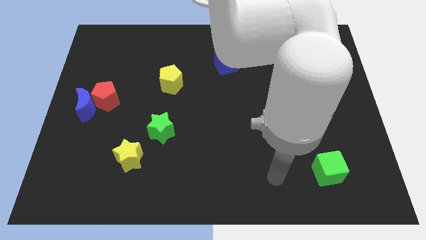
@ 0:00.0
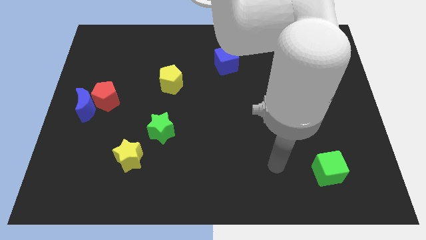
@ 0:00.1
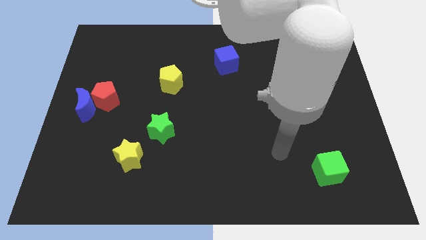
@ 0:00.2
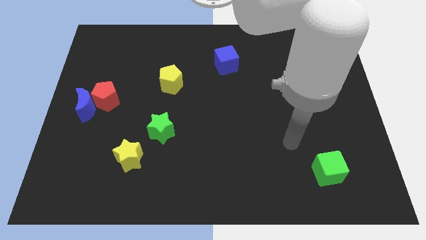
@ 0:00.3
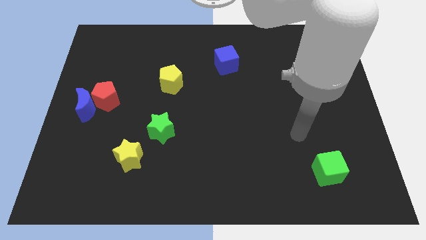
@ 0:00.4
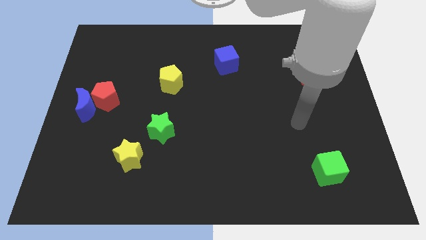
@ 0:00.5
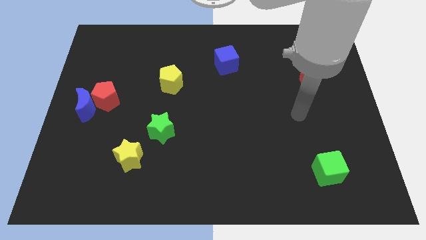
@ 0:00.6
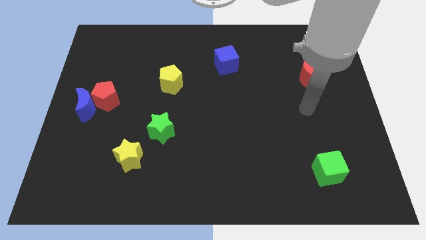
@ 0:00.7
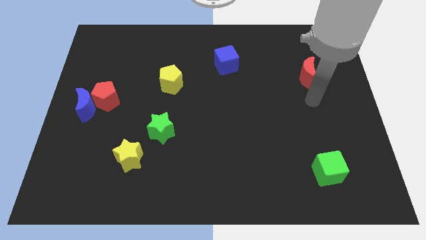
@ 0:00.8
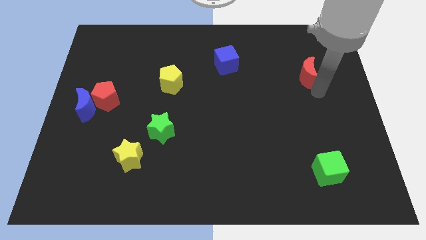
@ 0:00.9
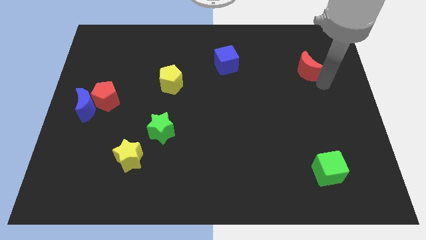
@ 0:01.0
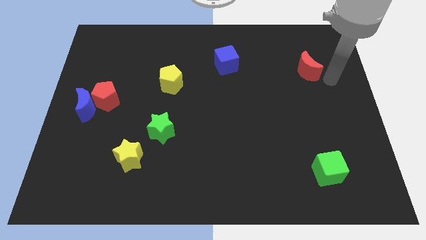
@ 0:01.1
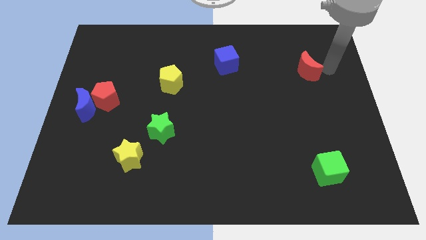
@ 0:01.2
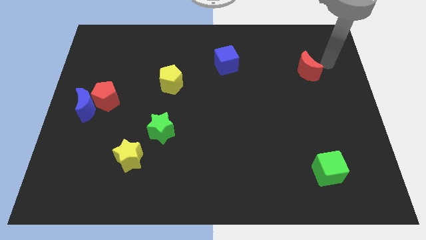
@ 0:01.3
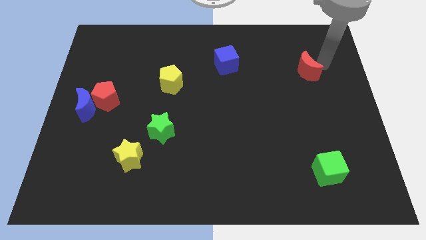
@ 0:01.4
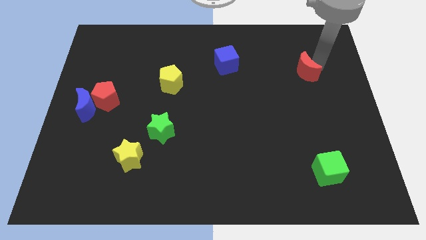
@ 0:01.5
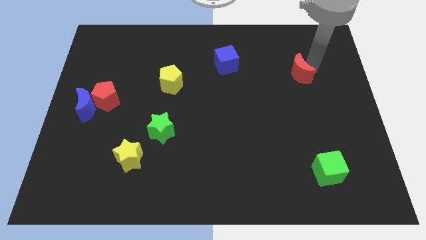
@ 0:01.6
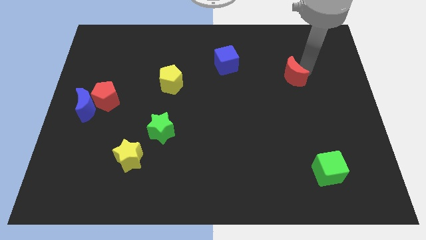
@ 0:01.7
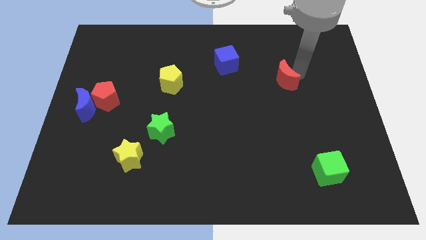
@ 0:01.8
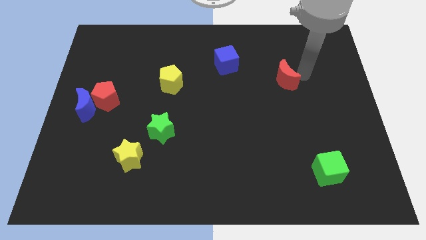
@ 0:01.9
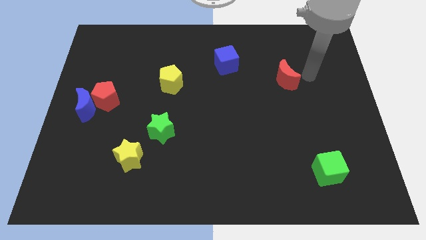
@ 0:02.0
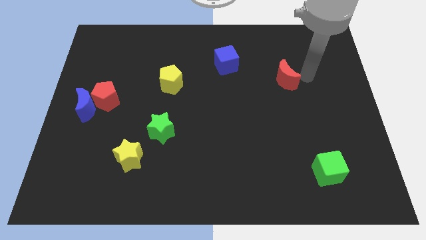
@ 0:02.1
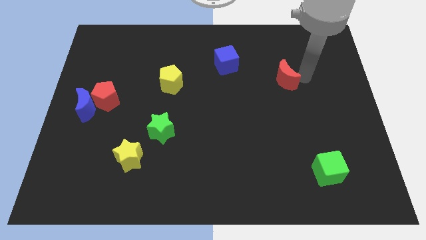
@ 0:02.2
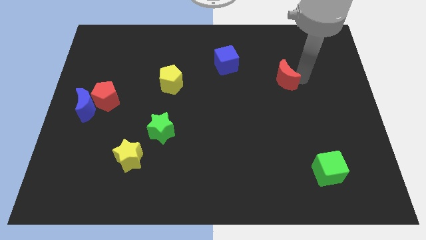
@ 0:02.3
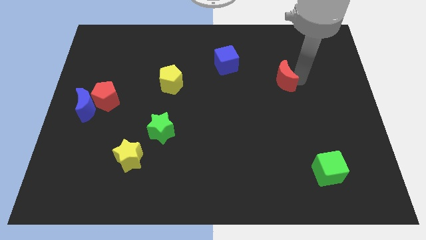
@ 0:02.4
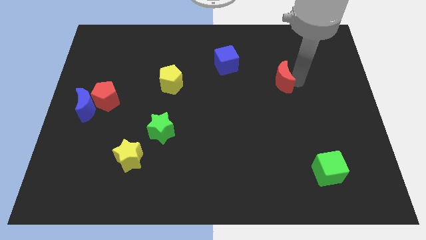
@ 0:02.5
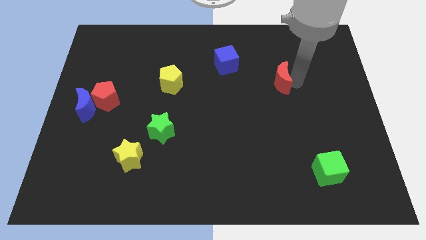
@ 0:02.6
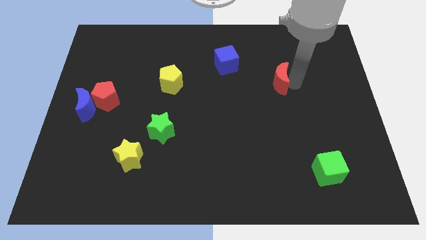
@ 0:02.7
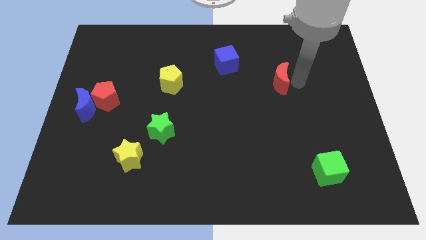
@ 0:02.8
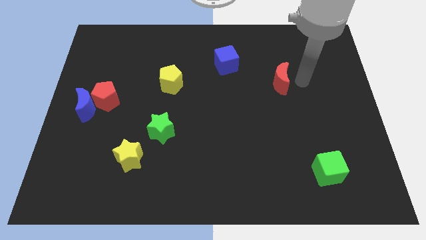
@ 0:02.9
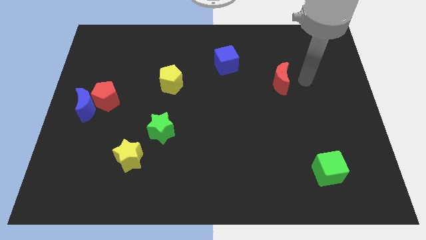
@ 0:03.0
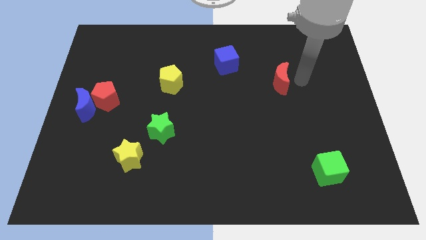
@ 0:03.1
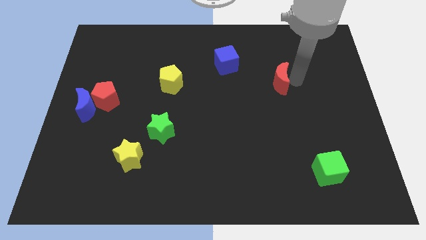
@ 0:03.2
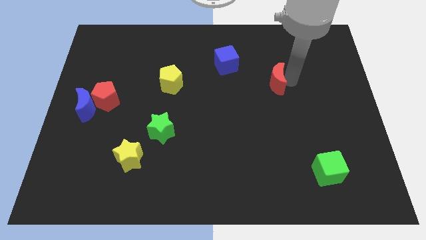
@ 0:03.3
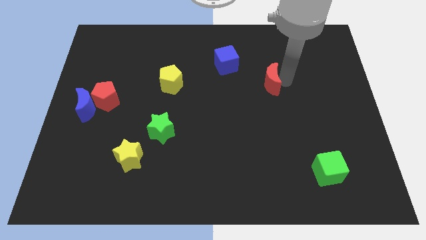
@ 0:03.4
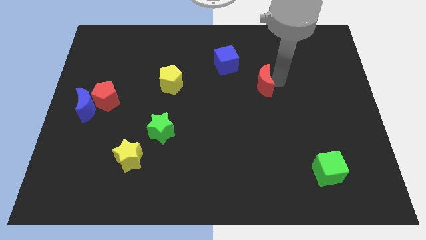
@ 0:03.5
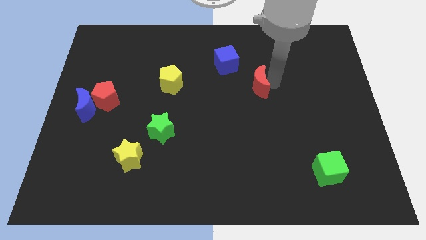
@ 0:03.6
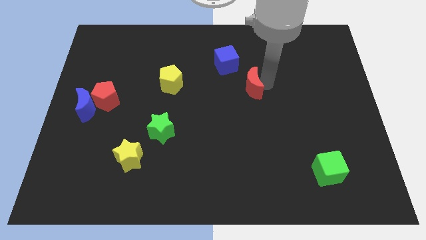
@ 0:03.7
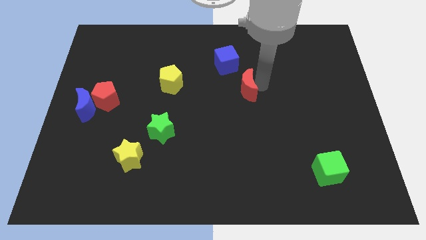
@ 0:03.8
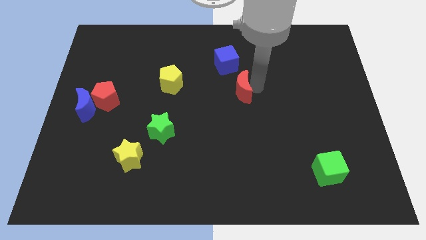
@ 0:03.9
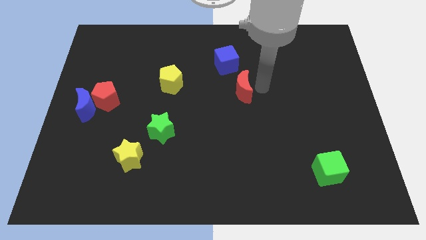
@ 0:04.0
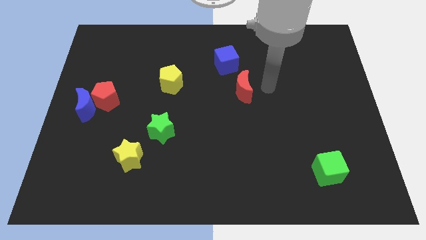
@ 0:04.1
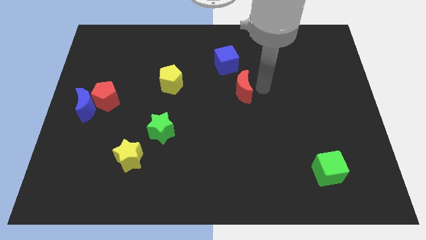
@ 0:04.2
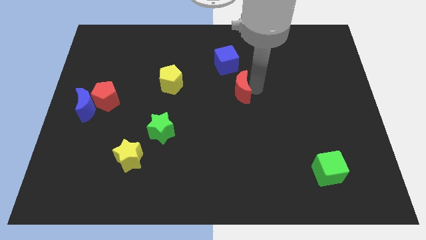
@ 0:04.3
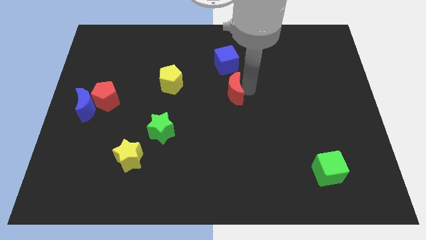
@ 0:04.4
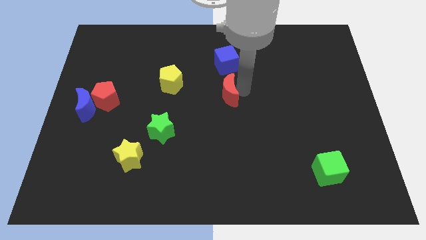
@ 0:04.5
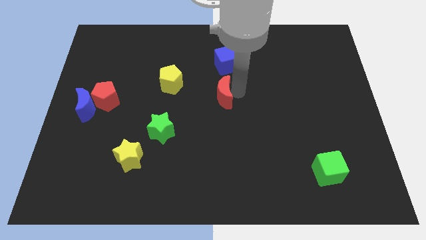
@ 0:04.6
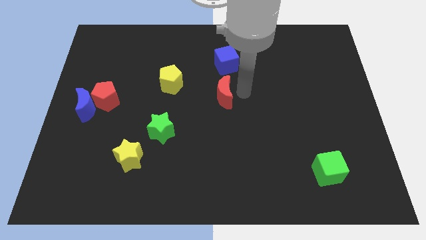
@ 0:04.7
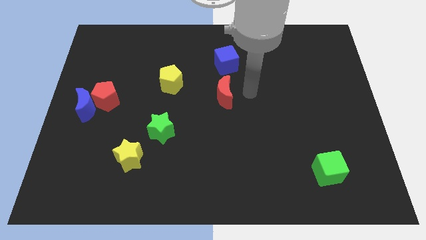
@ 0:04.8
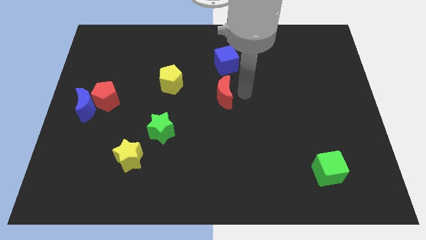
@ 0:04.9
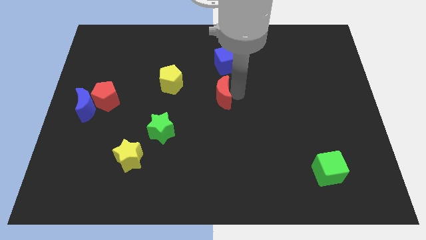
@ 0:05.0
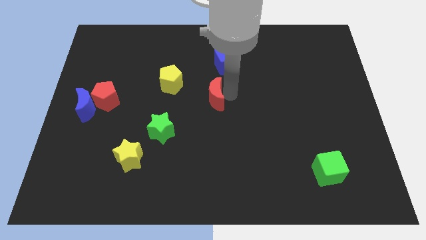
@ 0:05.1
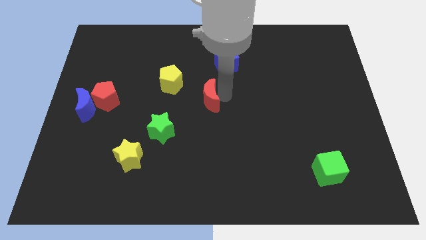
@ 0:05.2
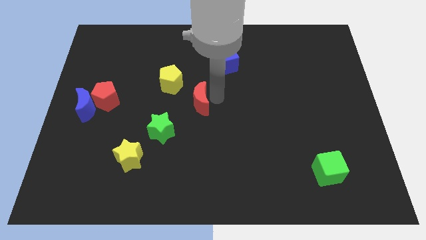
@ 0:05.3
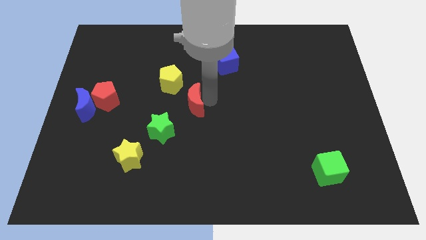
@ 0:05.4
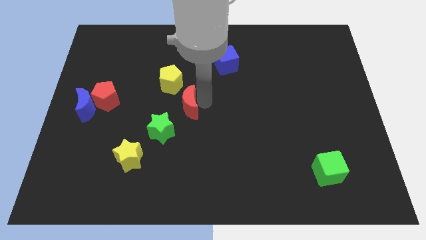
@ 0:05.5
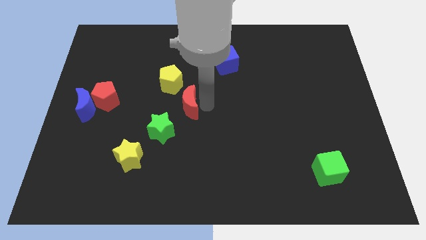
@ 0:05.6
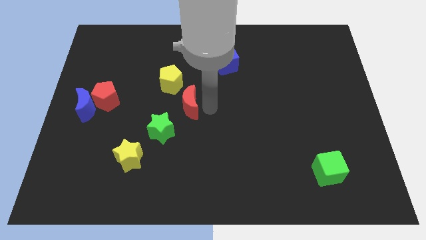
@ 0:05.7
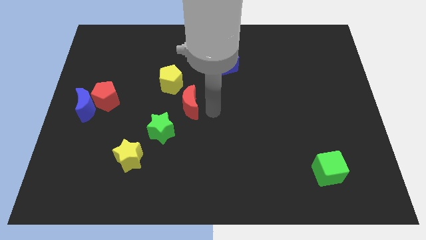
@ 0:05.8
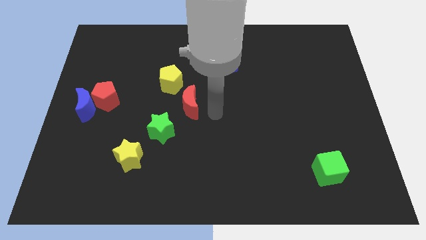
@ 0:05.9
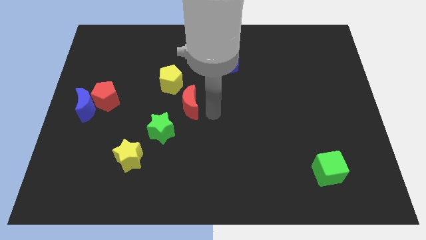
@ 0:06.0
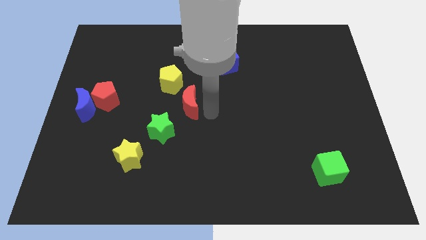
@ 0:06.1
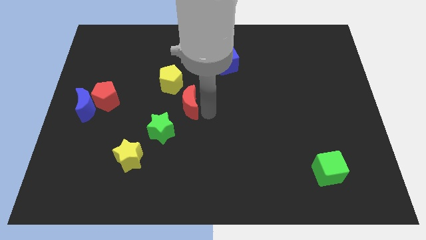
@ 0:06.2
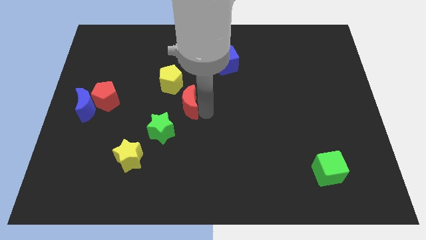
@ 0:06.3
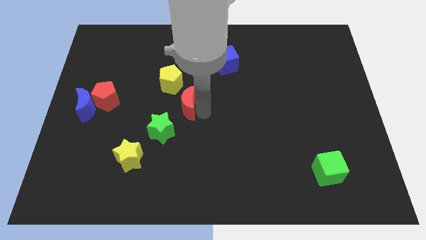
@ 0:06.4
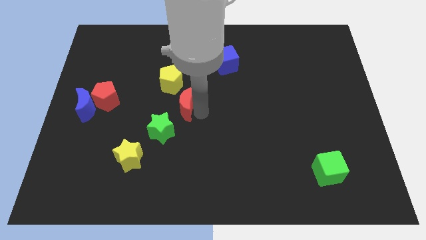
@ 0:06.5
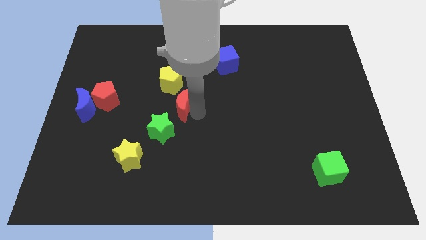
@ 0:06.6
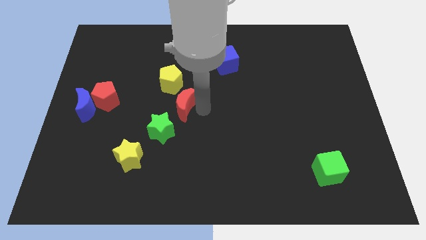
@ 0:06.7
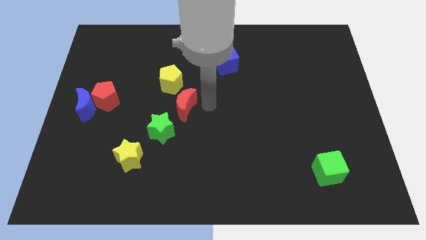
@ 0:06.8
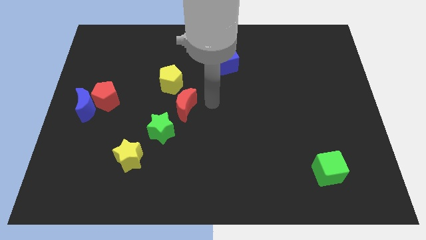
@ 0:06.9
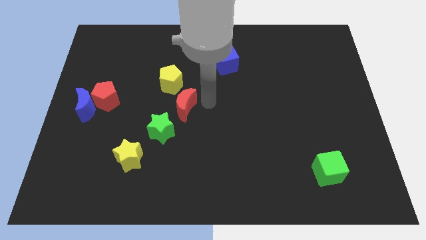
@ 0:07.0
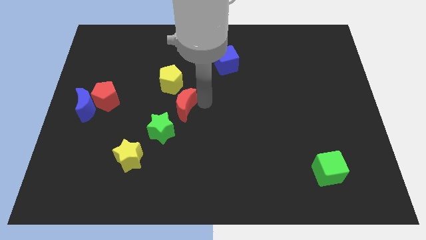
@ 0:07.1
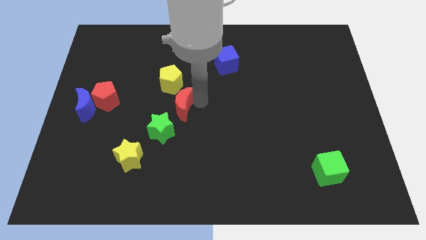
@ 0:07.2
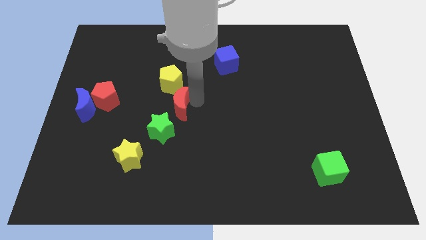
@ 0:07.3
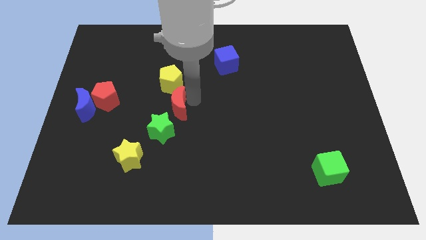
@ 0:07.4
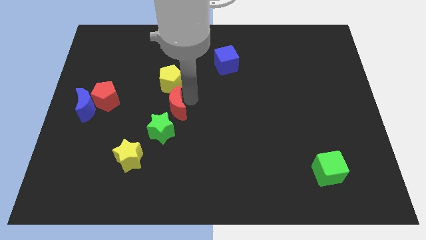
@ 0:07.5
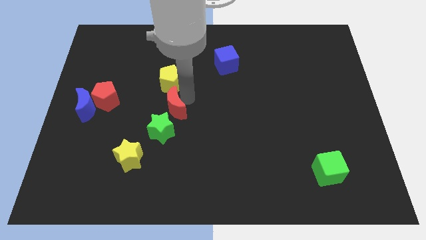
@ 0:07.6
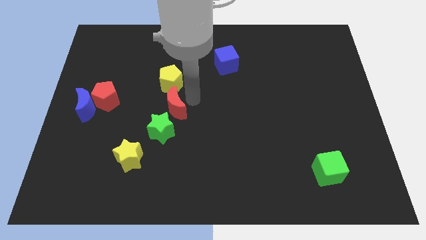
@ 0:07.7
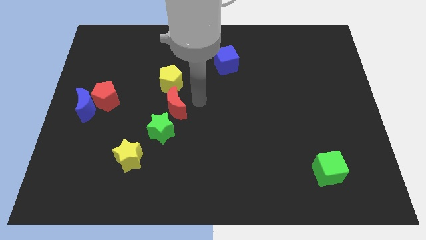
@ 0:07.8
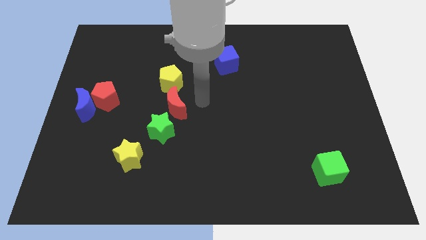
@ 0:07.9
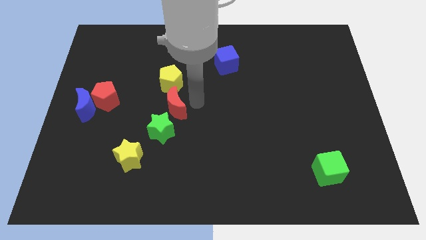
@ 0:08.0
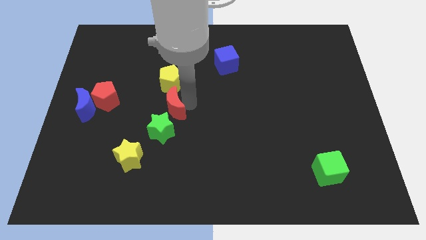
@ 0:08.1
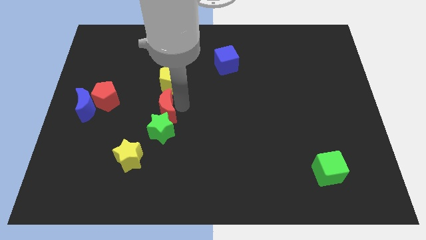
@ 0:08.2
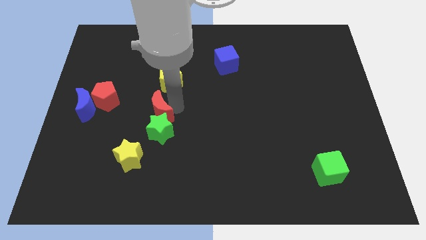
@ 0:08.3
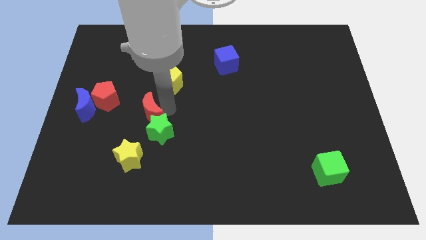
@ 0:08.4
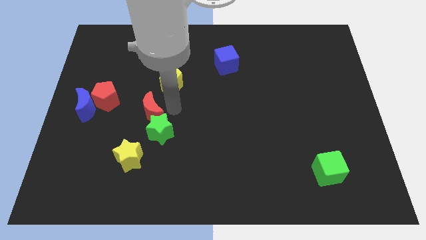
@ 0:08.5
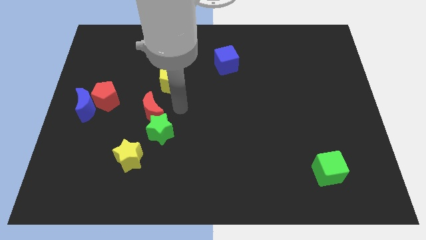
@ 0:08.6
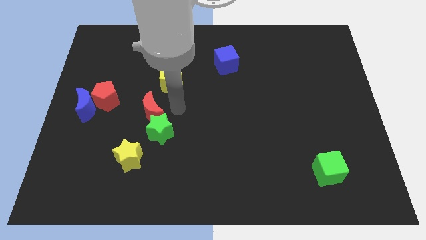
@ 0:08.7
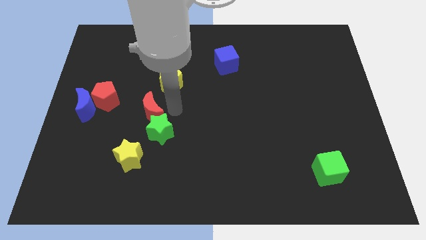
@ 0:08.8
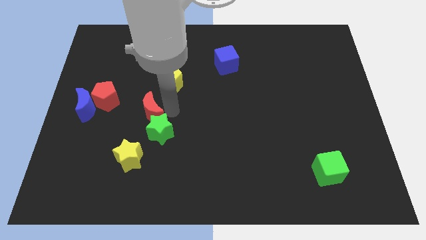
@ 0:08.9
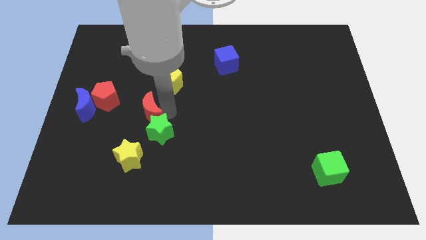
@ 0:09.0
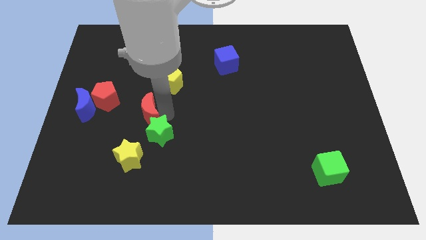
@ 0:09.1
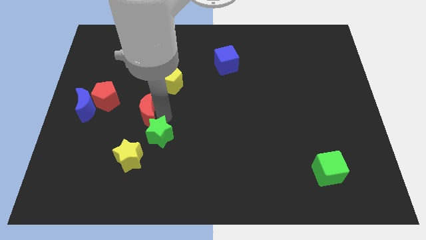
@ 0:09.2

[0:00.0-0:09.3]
push the red moon to the bottom right of the red pentagon
